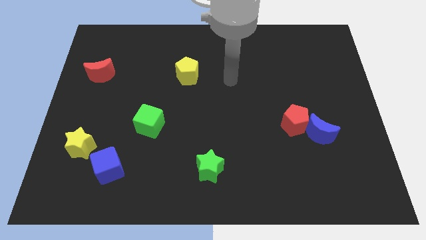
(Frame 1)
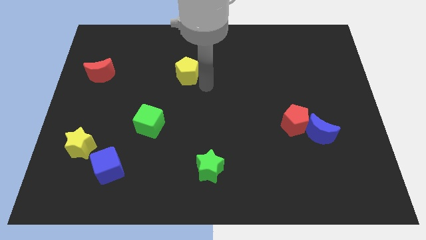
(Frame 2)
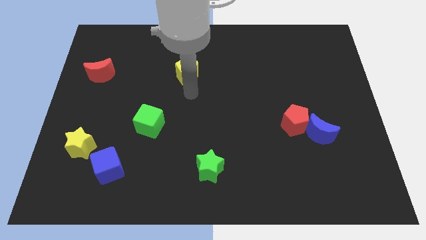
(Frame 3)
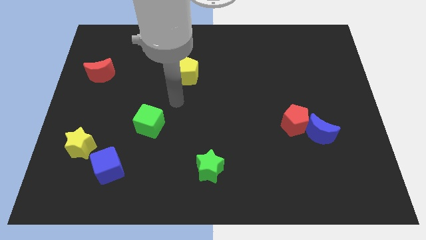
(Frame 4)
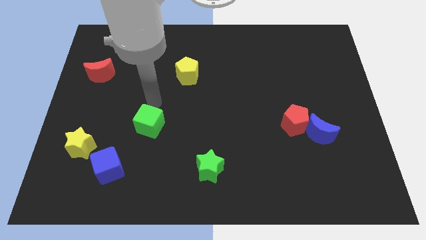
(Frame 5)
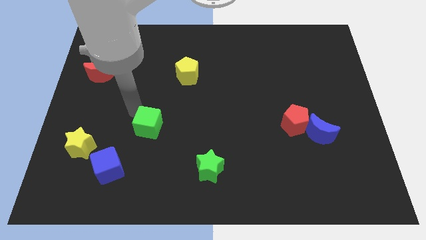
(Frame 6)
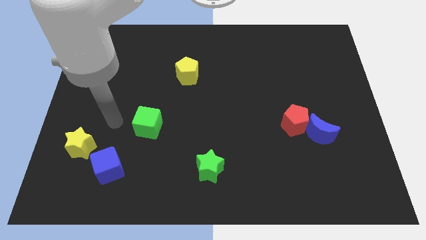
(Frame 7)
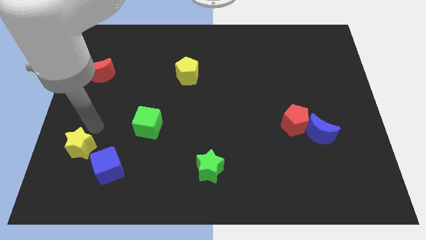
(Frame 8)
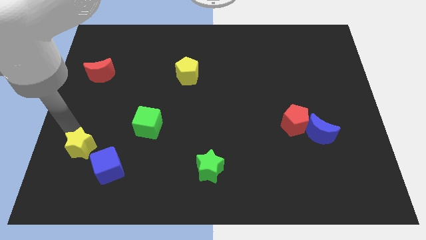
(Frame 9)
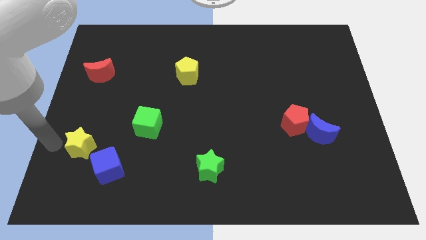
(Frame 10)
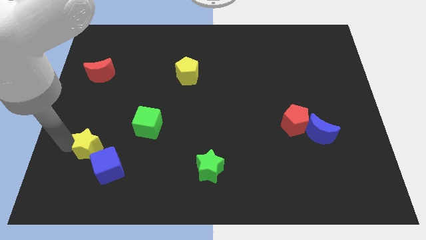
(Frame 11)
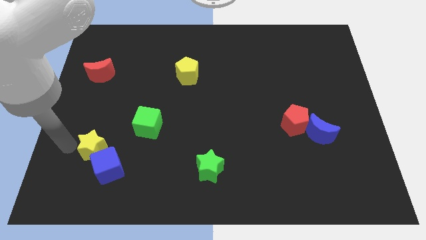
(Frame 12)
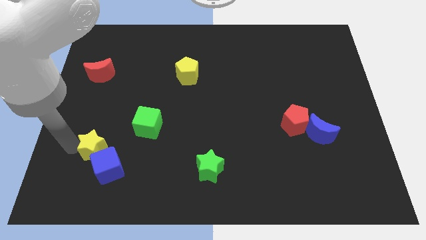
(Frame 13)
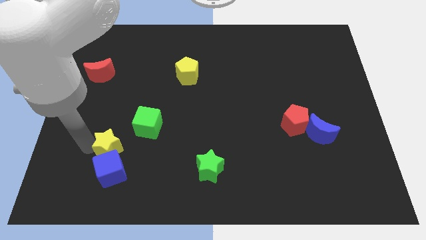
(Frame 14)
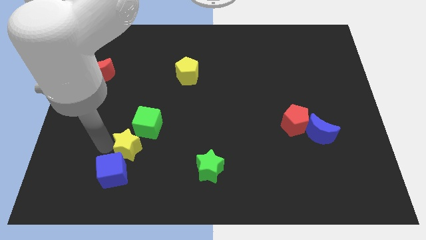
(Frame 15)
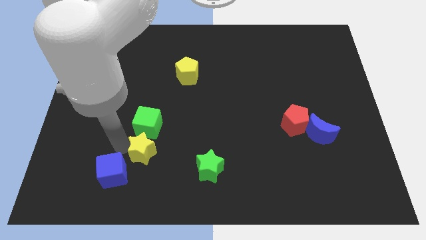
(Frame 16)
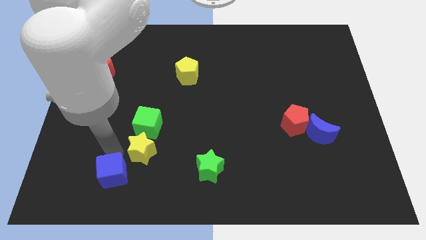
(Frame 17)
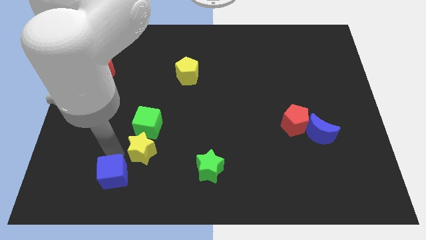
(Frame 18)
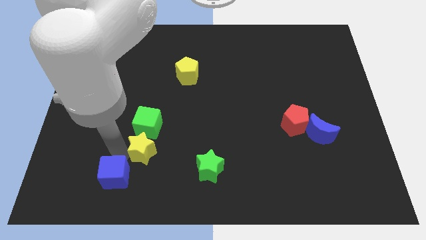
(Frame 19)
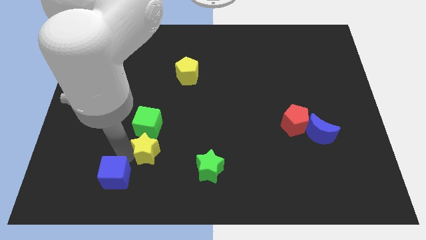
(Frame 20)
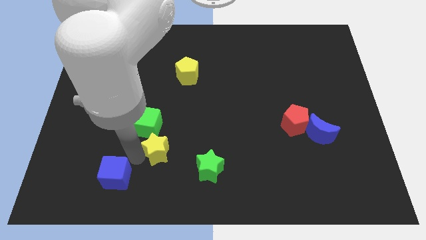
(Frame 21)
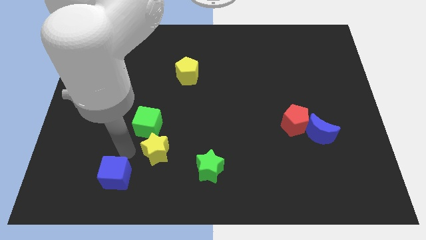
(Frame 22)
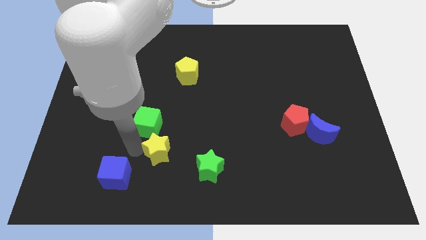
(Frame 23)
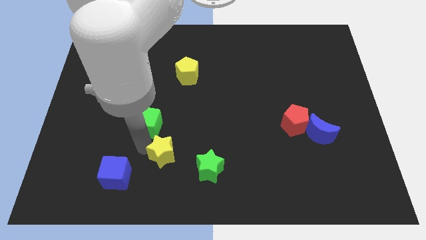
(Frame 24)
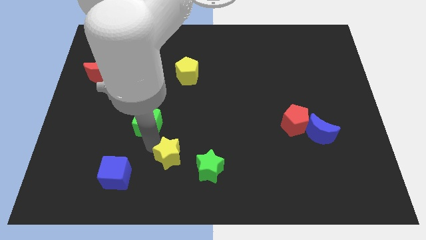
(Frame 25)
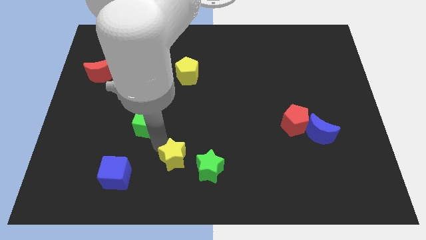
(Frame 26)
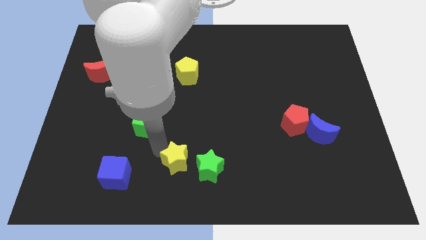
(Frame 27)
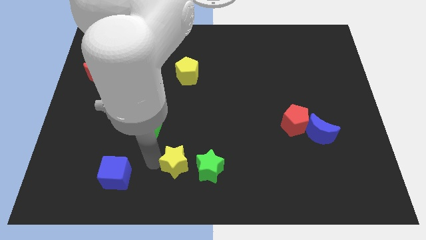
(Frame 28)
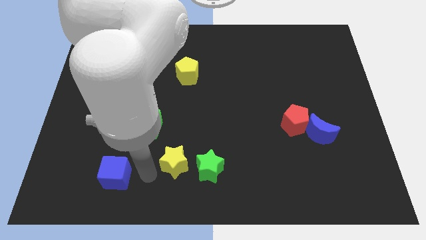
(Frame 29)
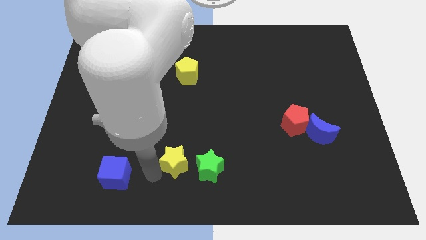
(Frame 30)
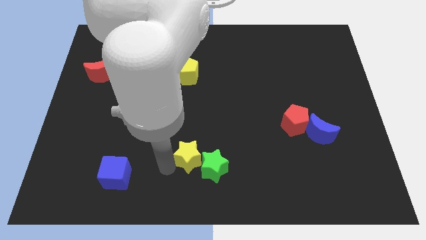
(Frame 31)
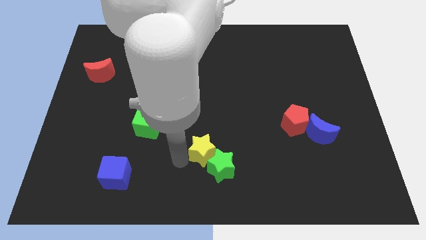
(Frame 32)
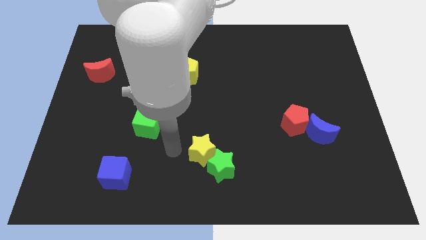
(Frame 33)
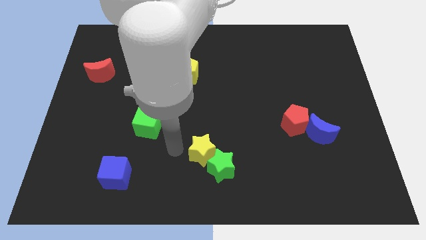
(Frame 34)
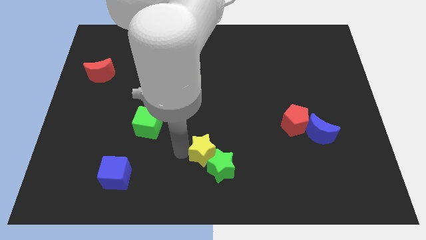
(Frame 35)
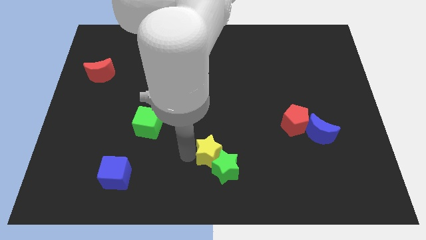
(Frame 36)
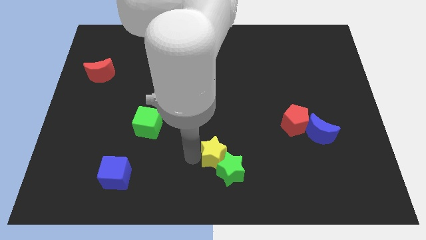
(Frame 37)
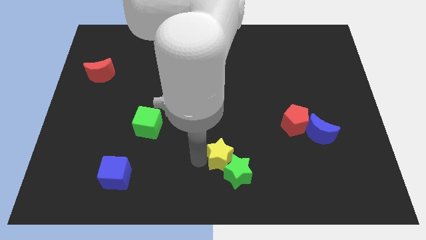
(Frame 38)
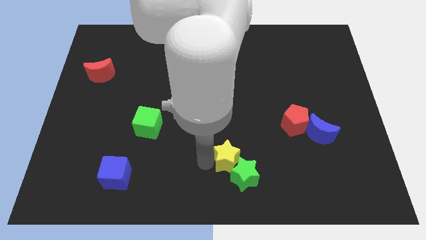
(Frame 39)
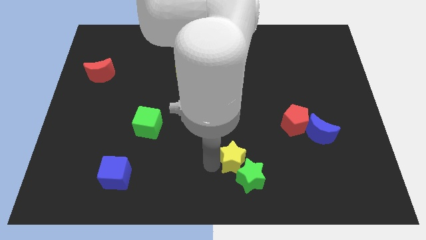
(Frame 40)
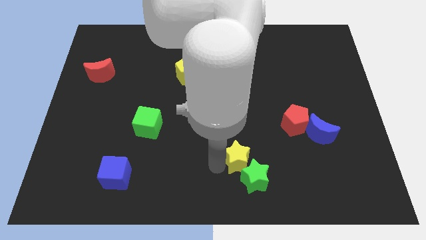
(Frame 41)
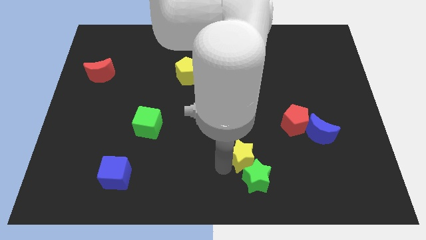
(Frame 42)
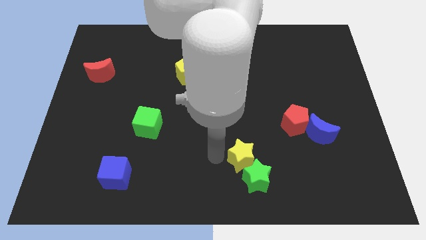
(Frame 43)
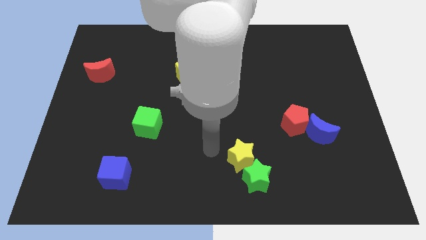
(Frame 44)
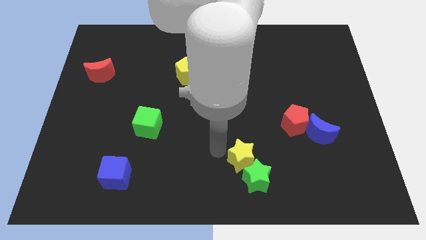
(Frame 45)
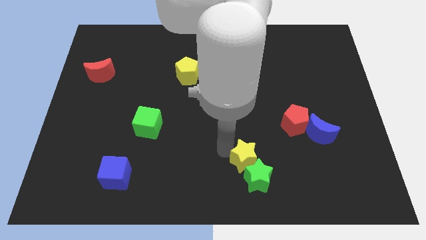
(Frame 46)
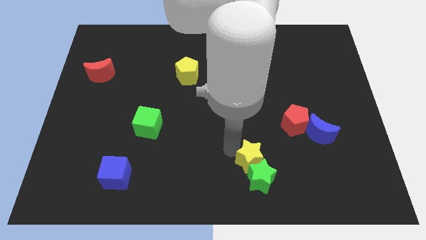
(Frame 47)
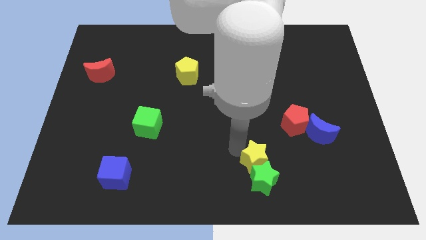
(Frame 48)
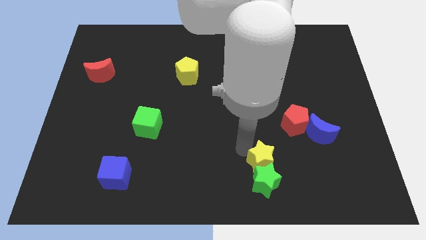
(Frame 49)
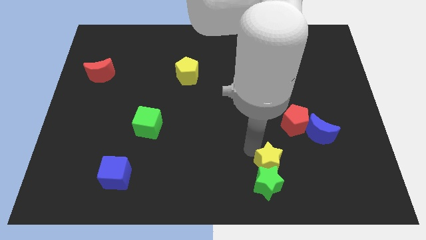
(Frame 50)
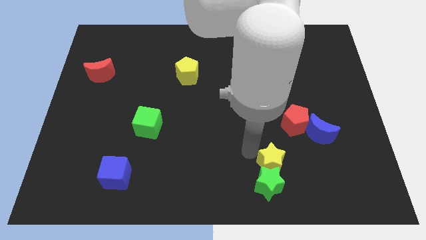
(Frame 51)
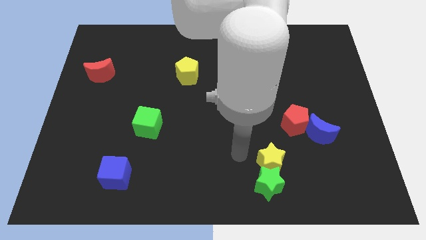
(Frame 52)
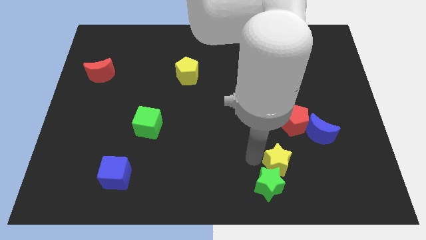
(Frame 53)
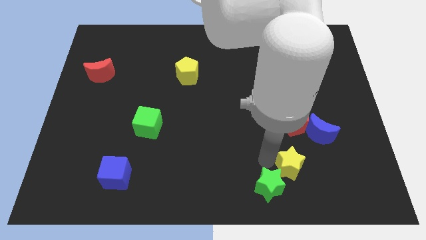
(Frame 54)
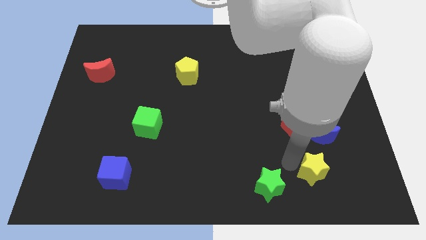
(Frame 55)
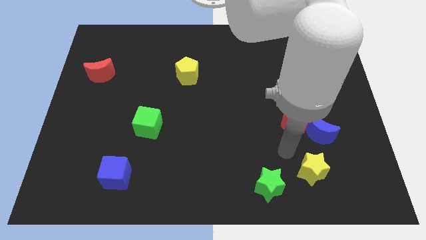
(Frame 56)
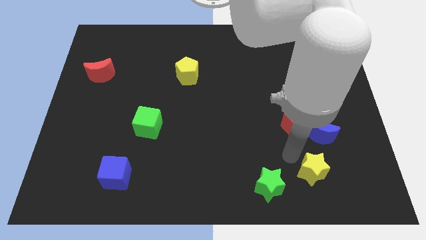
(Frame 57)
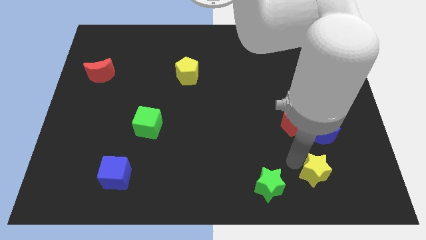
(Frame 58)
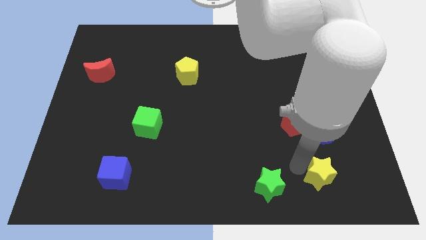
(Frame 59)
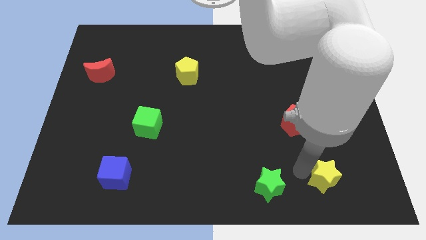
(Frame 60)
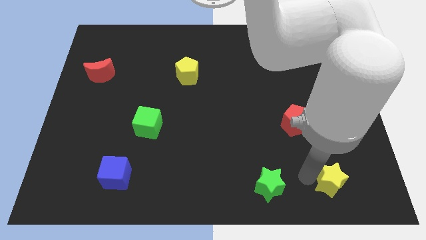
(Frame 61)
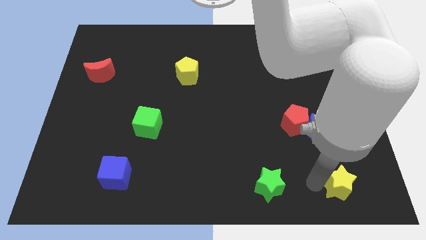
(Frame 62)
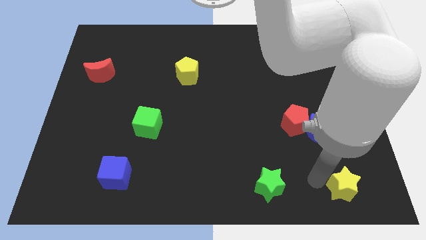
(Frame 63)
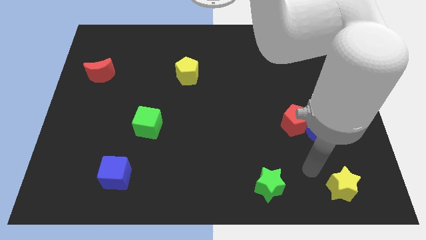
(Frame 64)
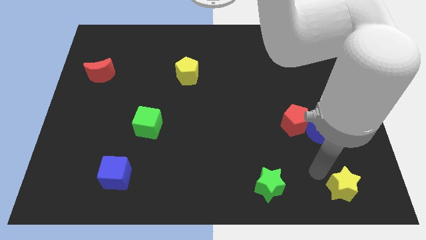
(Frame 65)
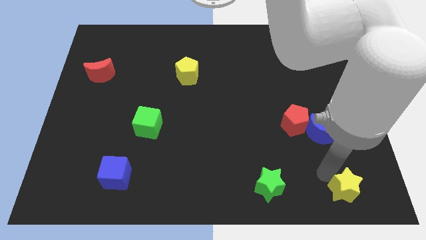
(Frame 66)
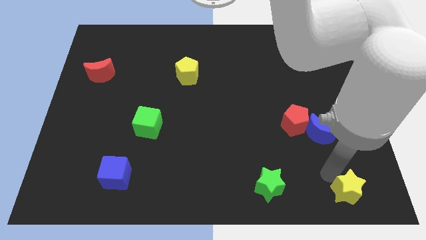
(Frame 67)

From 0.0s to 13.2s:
move the yellow star to the lower right corner

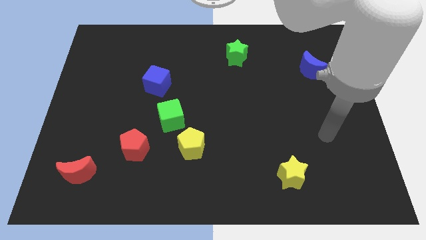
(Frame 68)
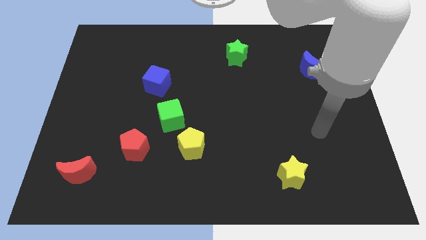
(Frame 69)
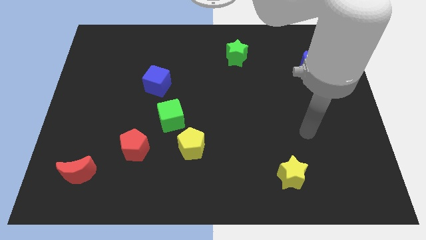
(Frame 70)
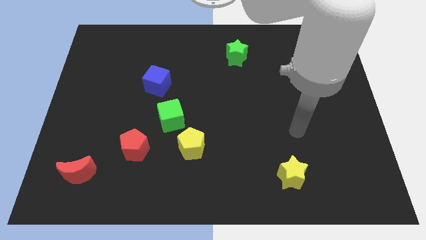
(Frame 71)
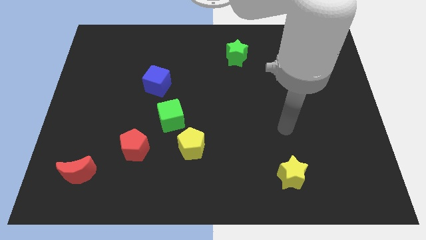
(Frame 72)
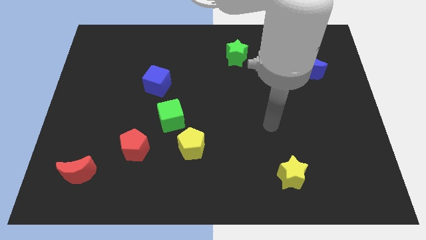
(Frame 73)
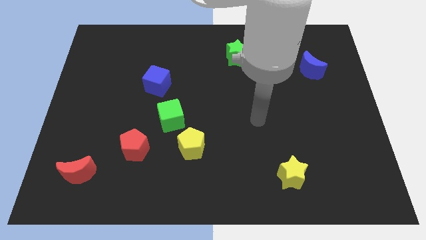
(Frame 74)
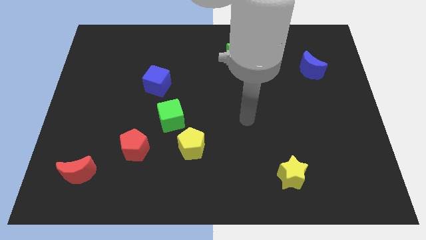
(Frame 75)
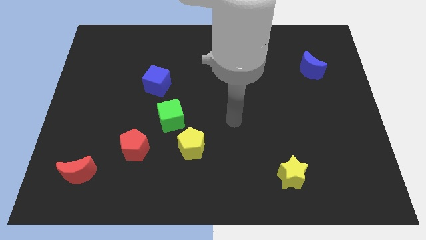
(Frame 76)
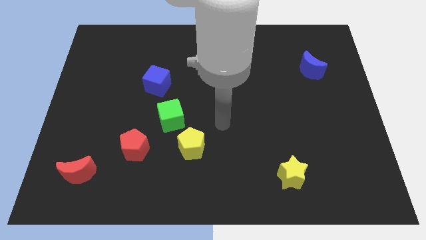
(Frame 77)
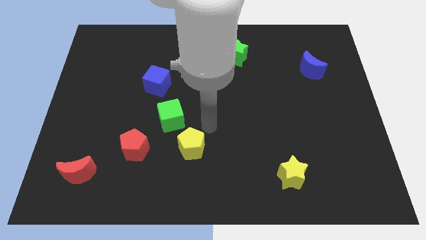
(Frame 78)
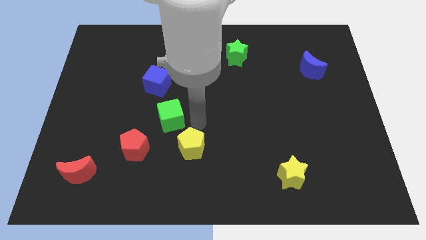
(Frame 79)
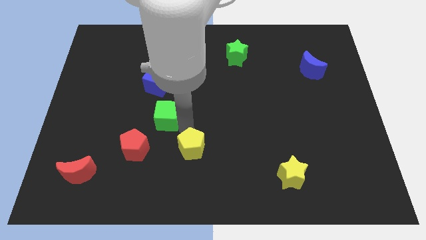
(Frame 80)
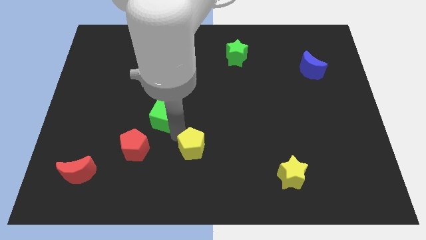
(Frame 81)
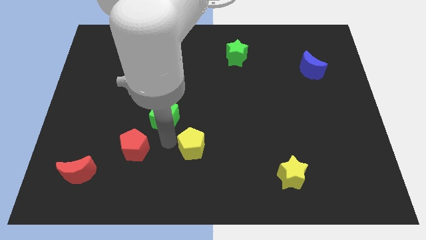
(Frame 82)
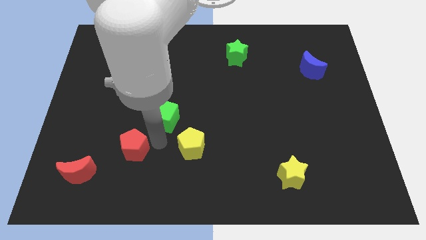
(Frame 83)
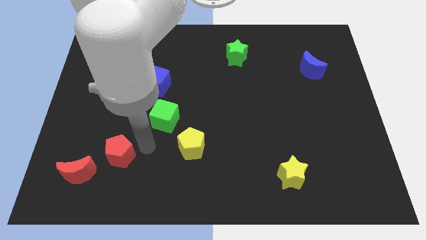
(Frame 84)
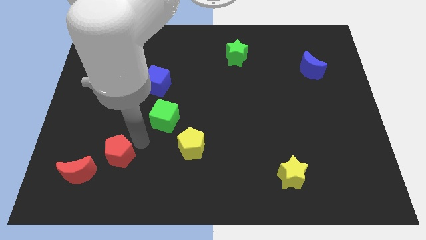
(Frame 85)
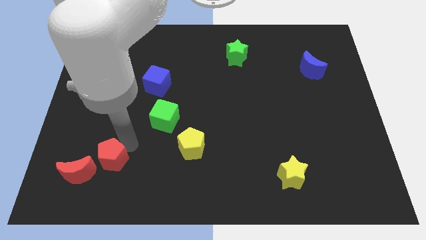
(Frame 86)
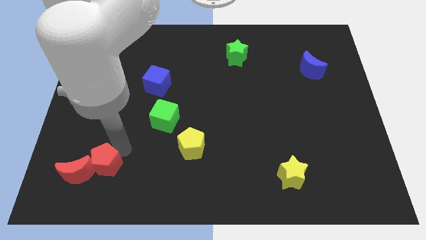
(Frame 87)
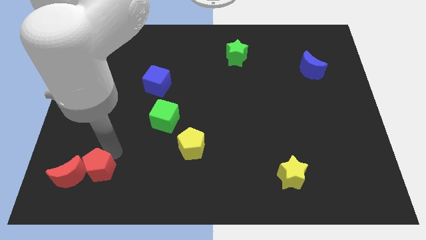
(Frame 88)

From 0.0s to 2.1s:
move the red moon to the bottom left of the board
